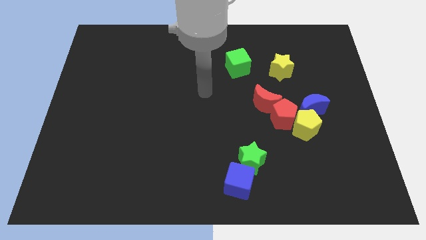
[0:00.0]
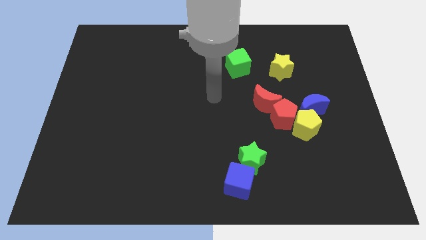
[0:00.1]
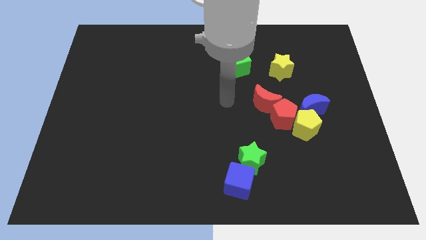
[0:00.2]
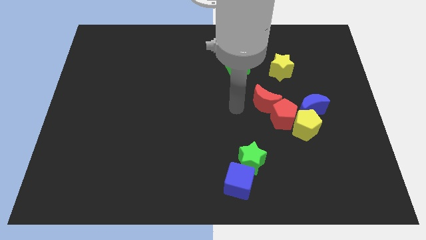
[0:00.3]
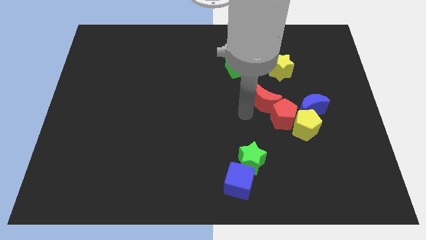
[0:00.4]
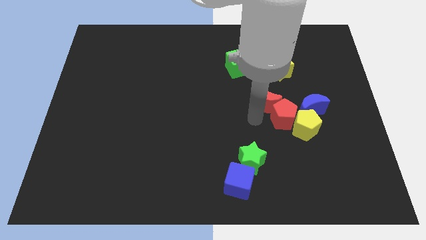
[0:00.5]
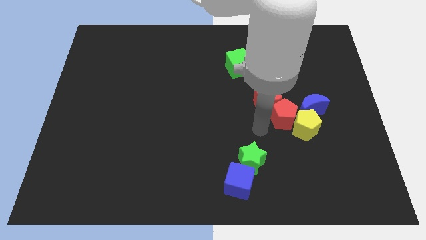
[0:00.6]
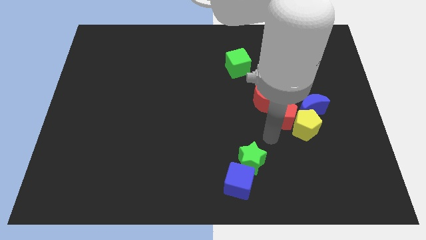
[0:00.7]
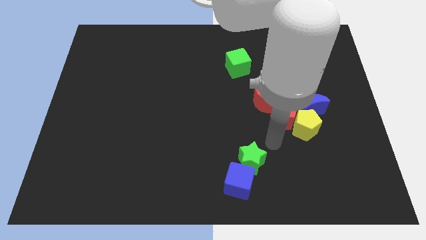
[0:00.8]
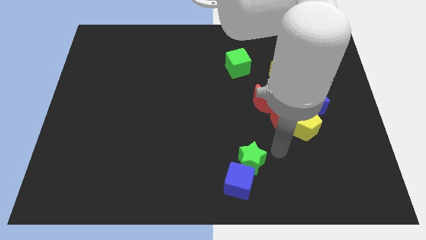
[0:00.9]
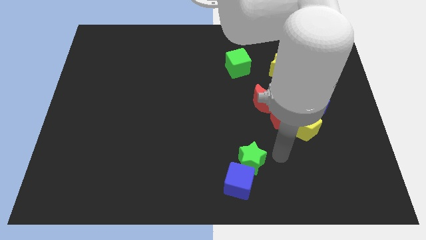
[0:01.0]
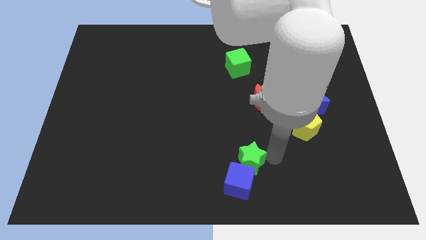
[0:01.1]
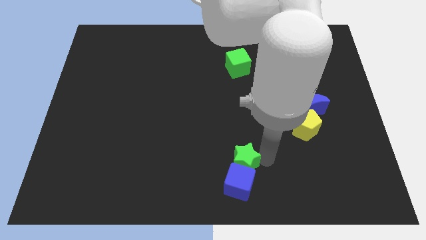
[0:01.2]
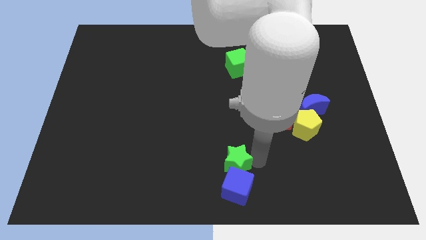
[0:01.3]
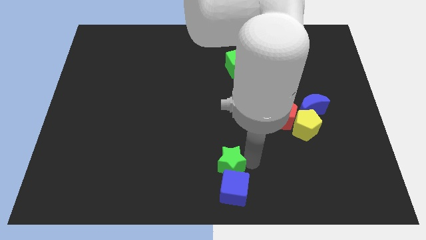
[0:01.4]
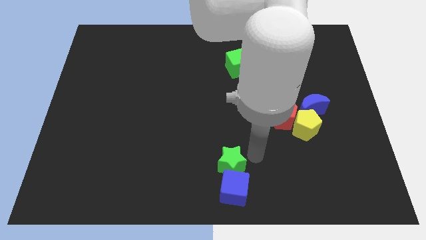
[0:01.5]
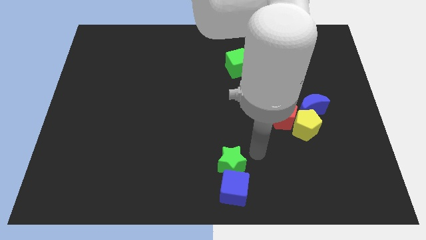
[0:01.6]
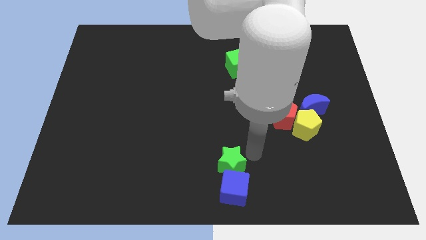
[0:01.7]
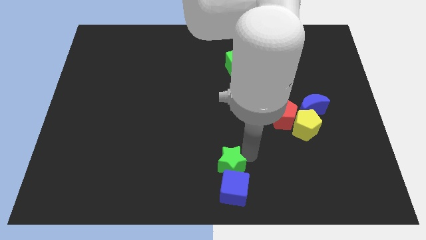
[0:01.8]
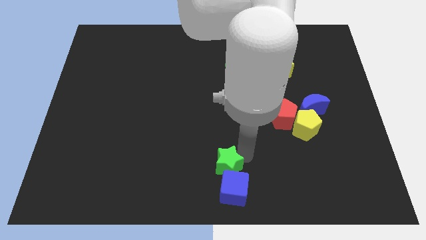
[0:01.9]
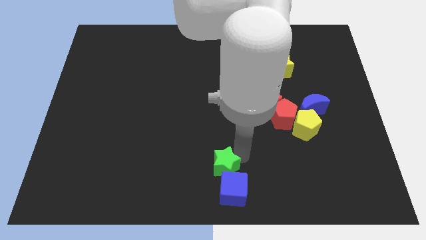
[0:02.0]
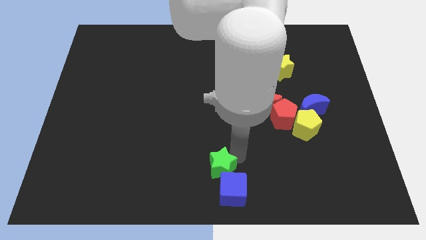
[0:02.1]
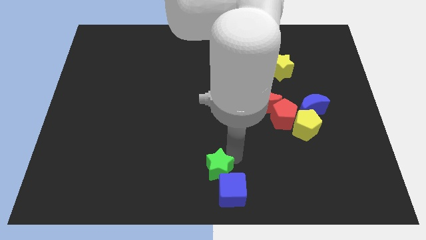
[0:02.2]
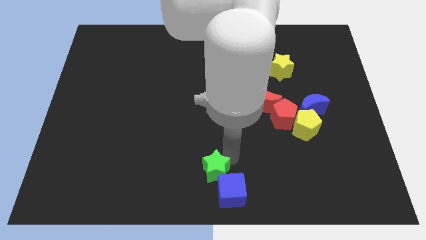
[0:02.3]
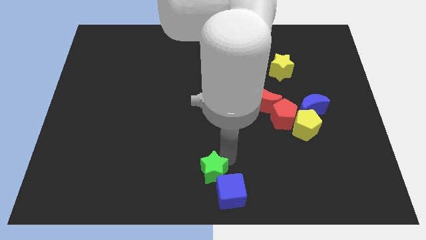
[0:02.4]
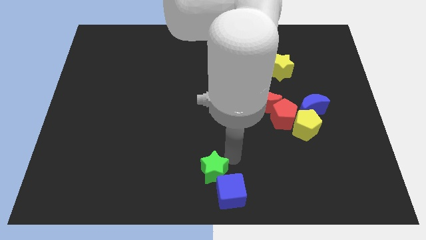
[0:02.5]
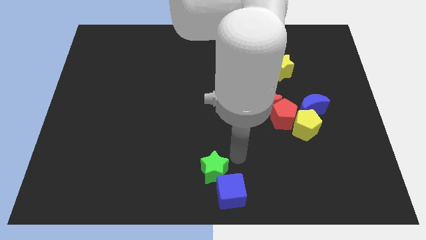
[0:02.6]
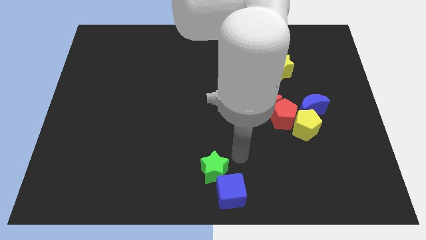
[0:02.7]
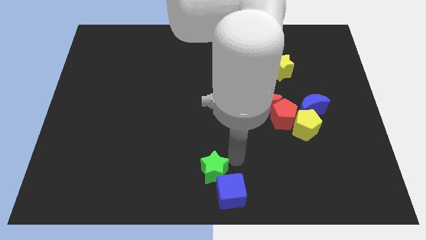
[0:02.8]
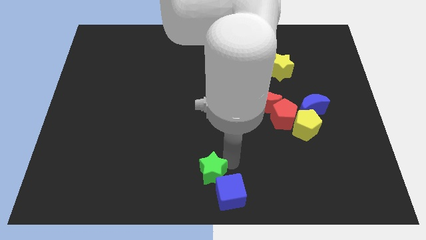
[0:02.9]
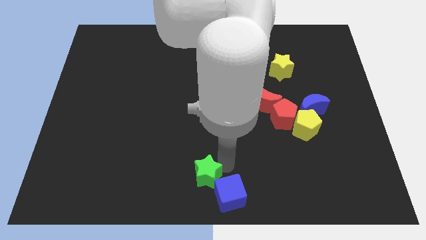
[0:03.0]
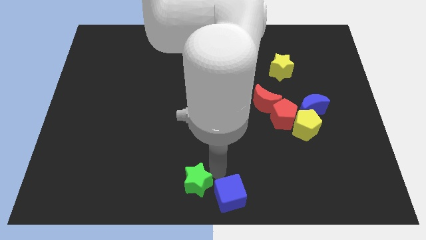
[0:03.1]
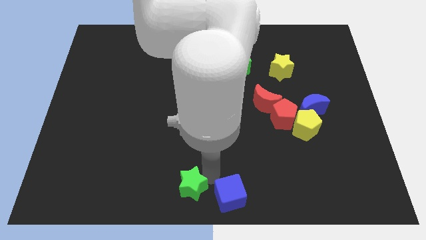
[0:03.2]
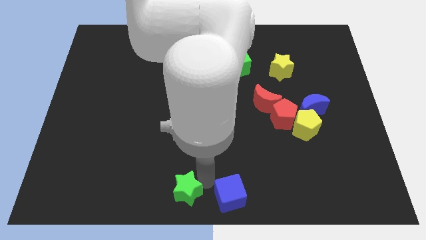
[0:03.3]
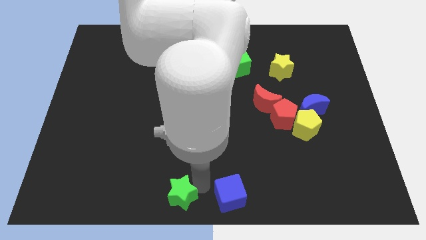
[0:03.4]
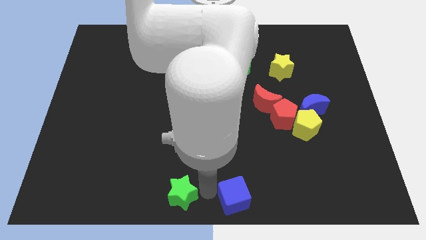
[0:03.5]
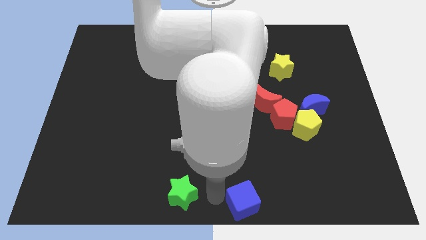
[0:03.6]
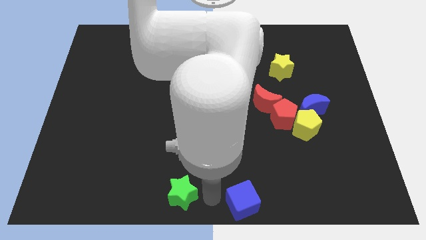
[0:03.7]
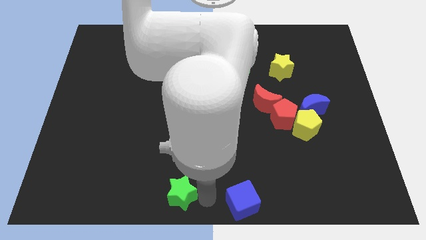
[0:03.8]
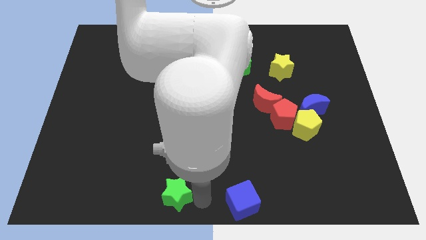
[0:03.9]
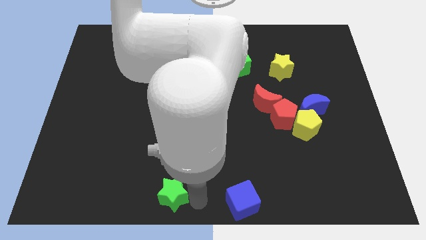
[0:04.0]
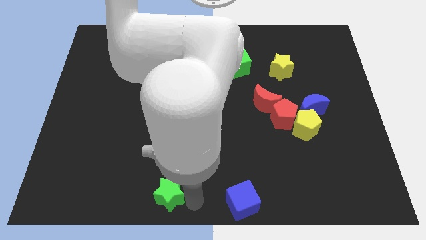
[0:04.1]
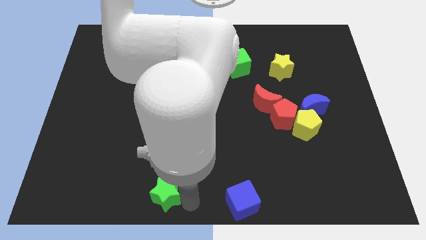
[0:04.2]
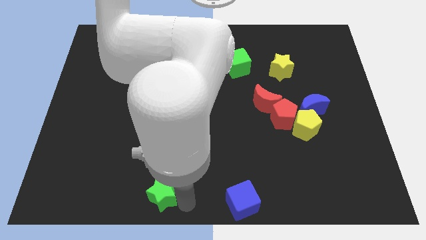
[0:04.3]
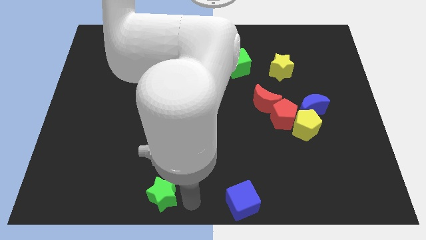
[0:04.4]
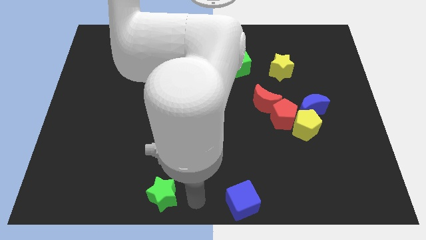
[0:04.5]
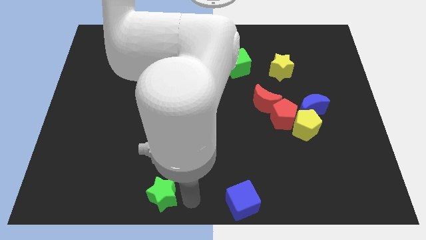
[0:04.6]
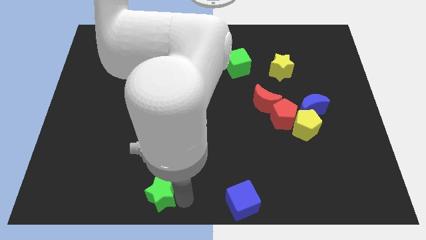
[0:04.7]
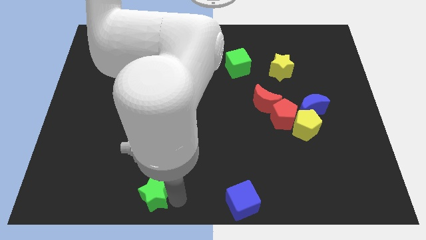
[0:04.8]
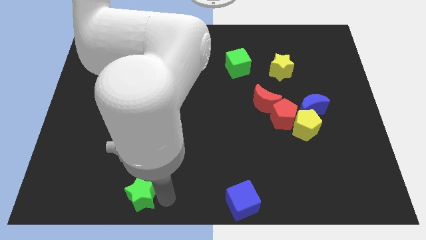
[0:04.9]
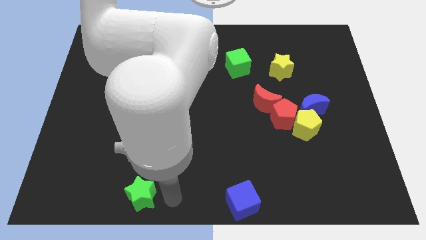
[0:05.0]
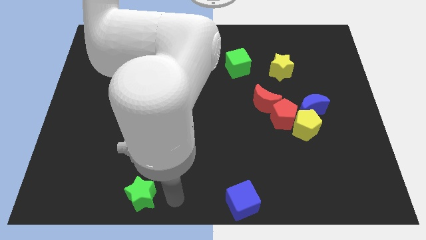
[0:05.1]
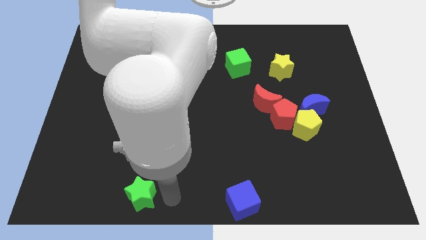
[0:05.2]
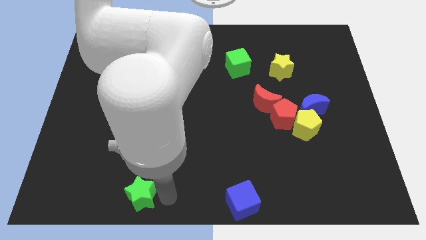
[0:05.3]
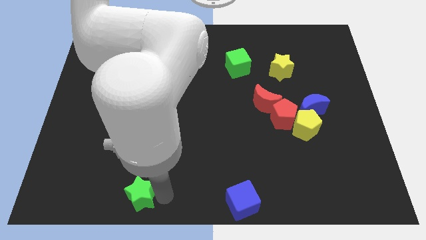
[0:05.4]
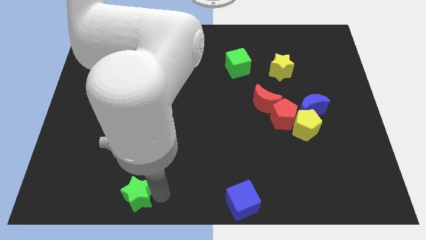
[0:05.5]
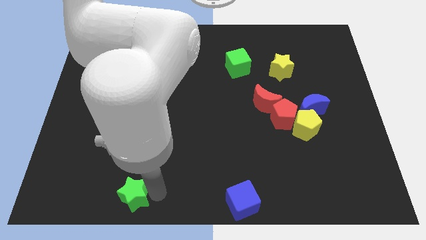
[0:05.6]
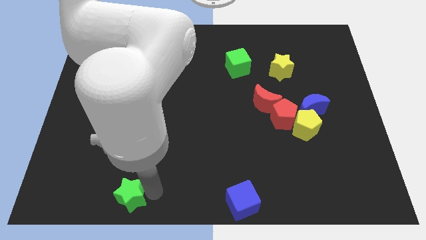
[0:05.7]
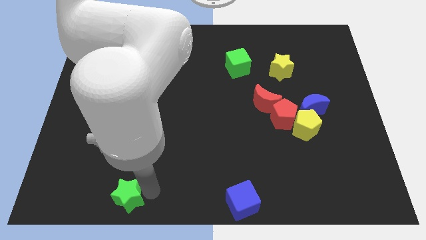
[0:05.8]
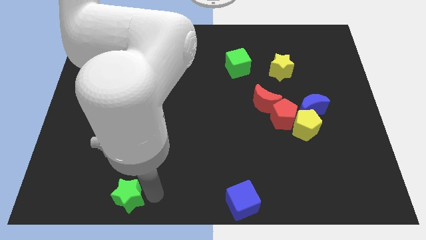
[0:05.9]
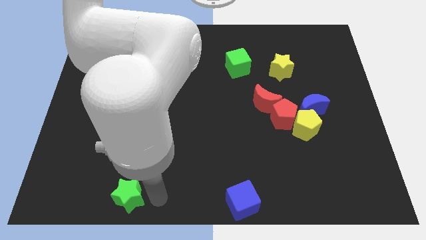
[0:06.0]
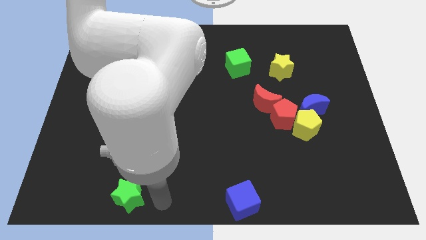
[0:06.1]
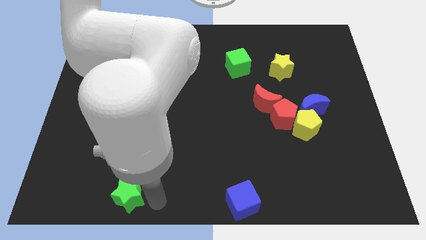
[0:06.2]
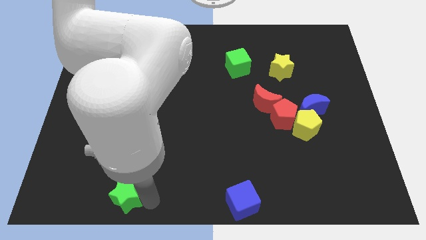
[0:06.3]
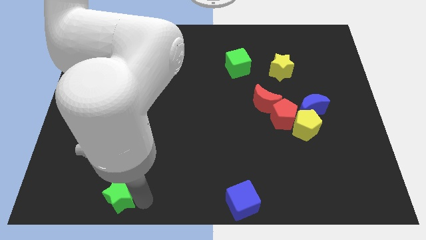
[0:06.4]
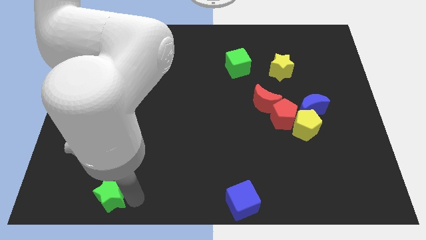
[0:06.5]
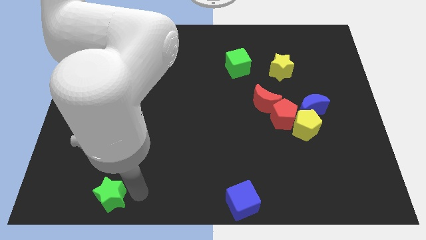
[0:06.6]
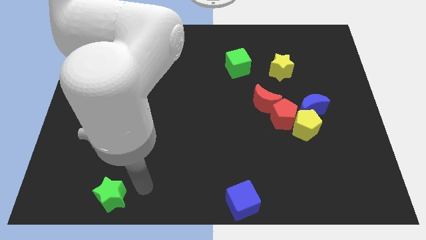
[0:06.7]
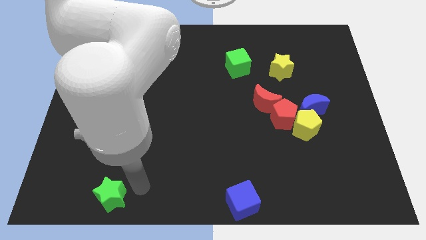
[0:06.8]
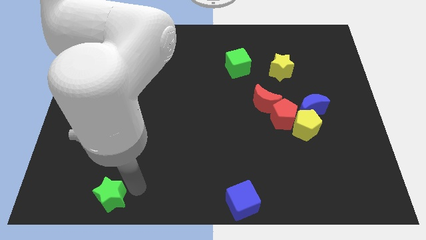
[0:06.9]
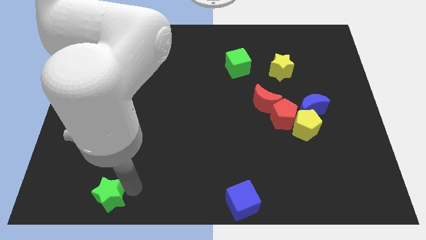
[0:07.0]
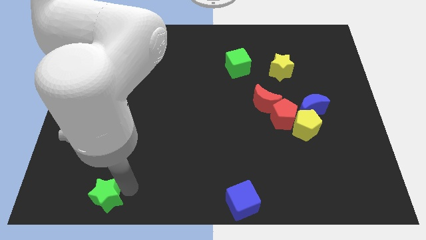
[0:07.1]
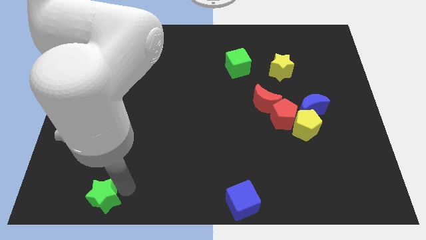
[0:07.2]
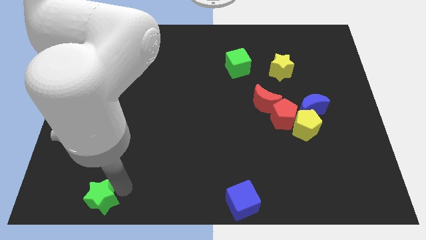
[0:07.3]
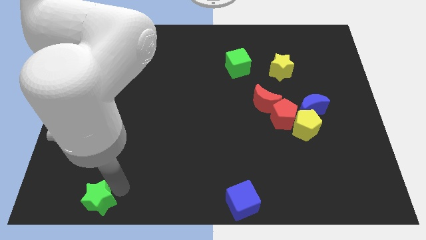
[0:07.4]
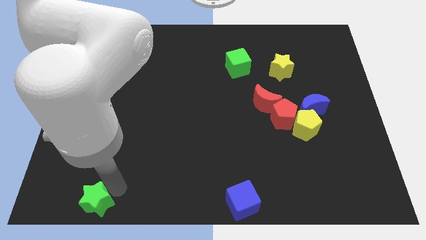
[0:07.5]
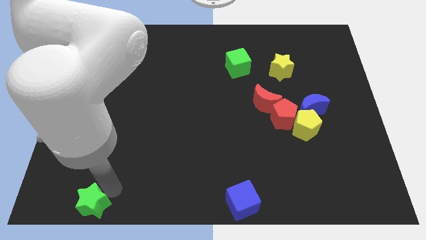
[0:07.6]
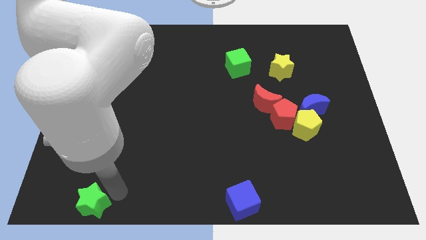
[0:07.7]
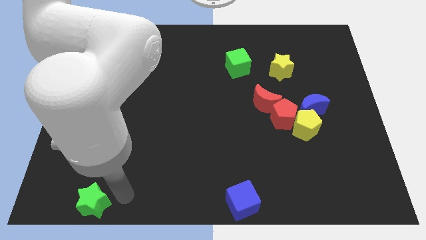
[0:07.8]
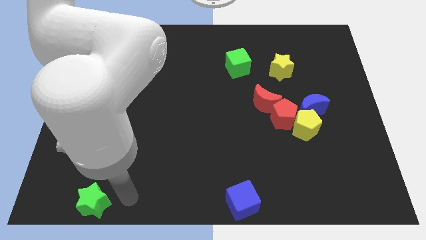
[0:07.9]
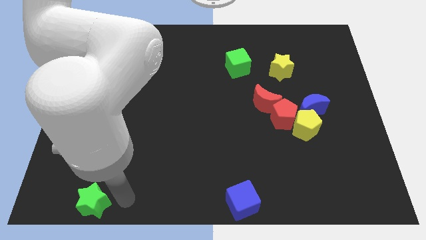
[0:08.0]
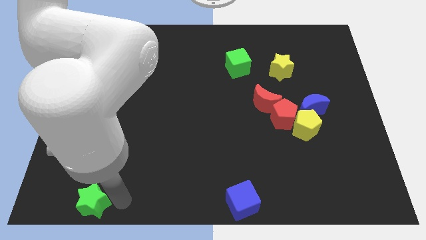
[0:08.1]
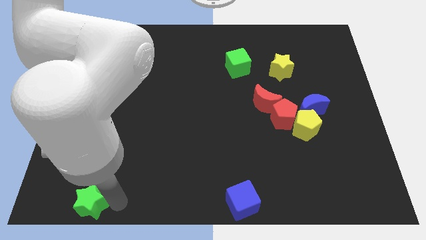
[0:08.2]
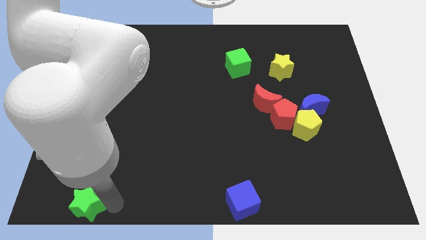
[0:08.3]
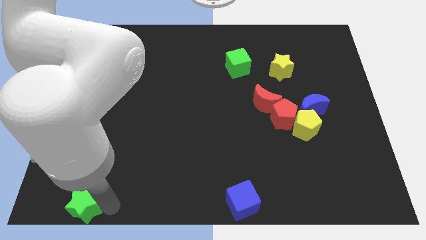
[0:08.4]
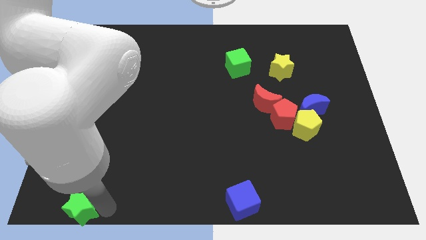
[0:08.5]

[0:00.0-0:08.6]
slide the green star to the bottom left of the board
